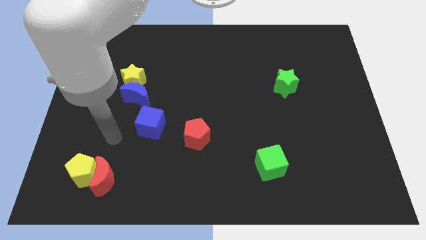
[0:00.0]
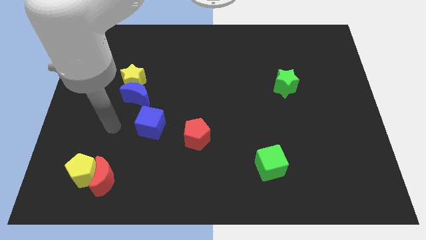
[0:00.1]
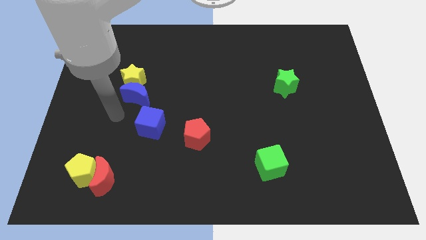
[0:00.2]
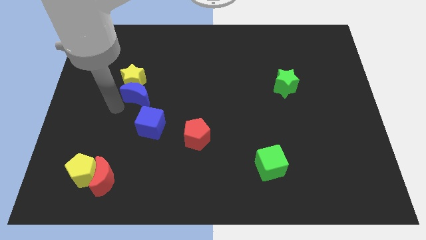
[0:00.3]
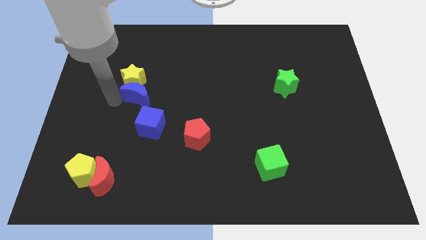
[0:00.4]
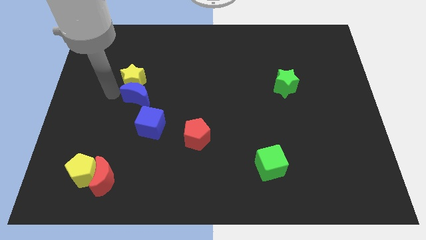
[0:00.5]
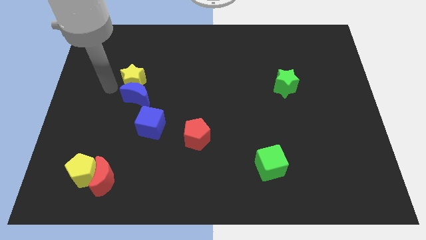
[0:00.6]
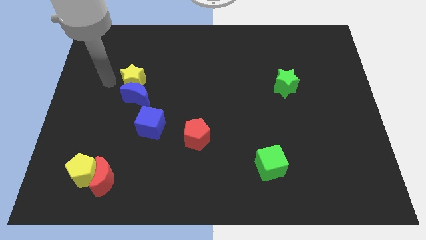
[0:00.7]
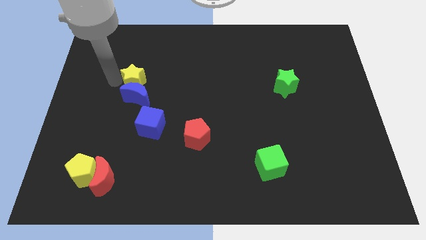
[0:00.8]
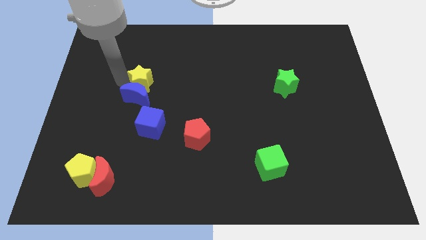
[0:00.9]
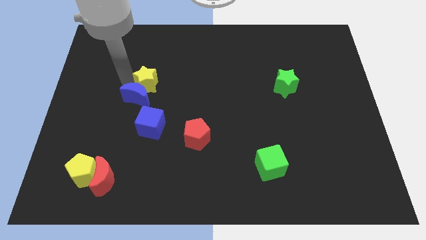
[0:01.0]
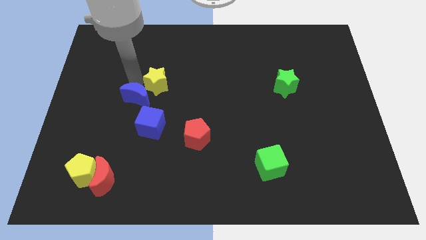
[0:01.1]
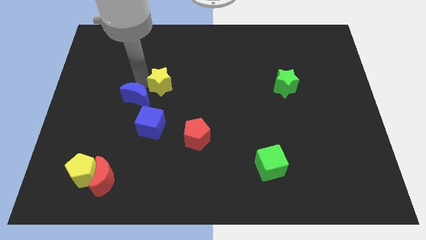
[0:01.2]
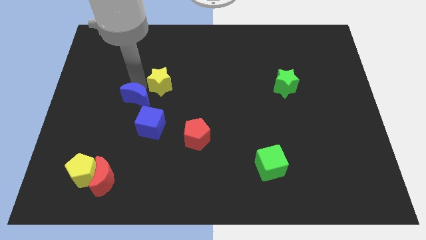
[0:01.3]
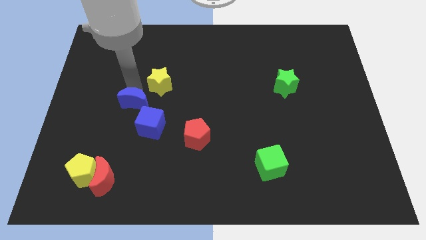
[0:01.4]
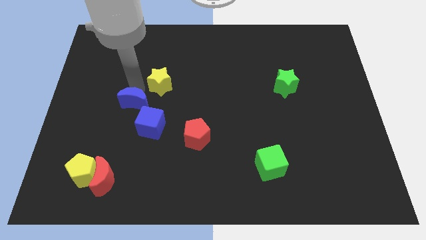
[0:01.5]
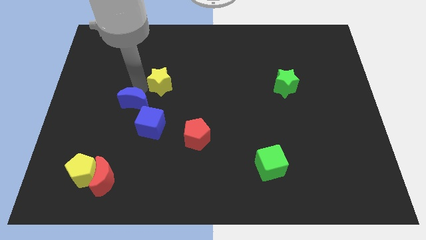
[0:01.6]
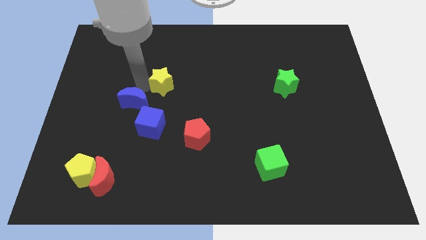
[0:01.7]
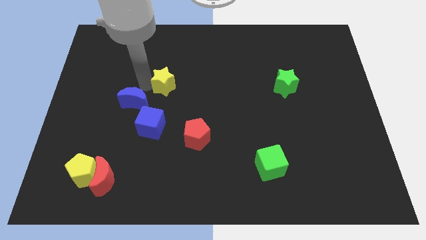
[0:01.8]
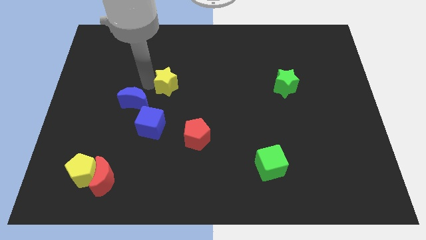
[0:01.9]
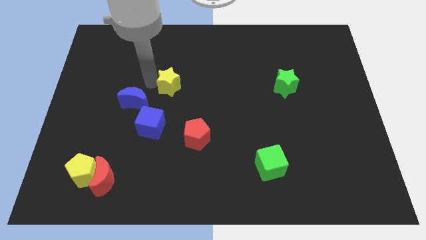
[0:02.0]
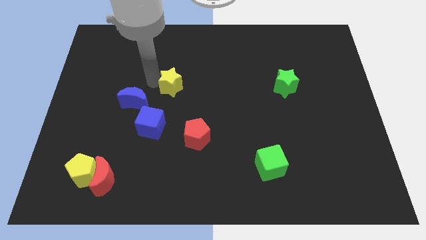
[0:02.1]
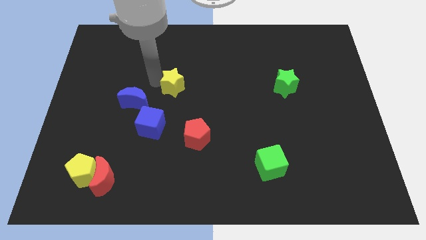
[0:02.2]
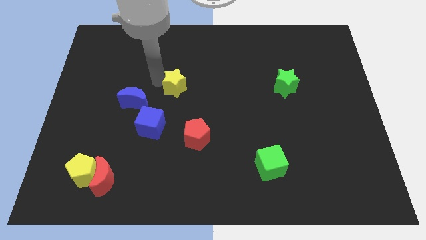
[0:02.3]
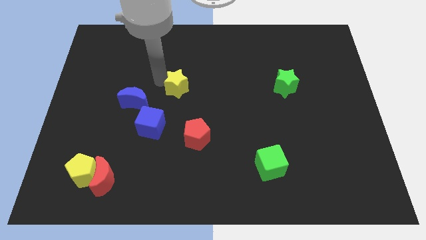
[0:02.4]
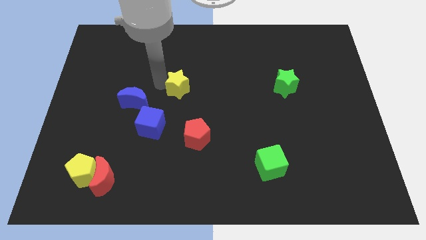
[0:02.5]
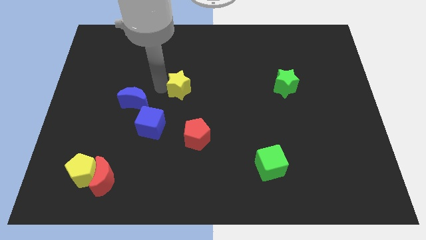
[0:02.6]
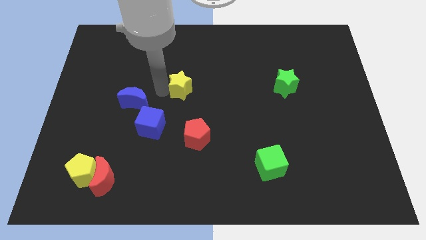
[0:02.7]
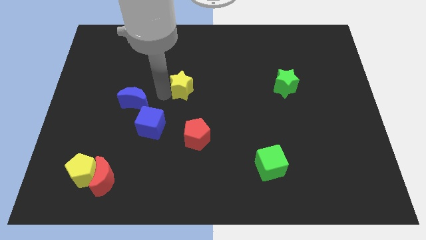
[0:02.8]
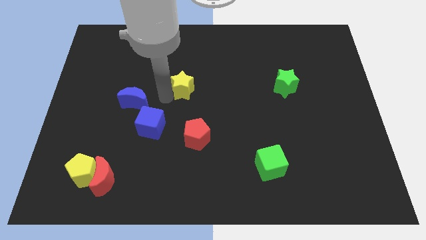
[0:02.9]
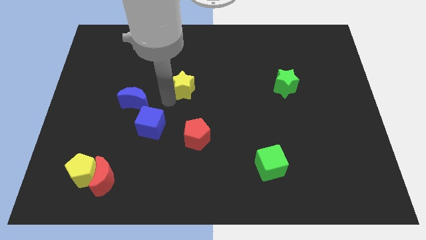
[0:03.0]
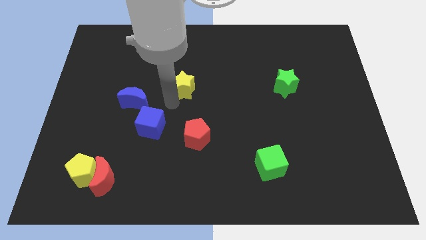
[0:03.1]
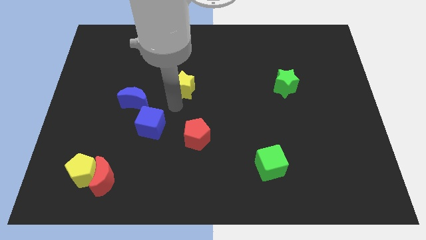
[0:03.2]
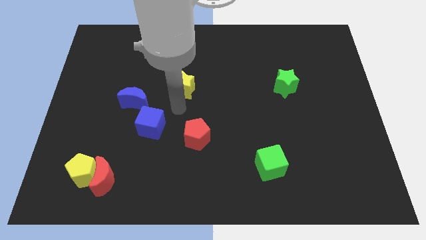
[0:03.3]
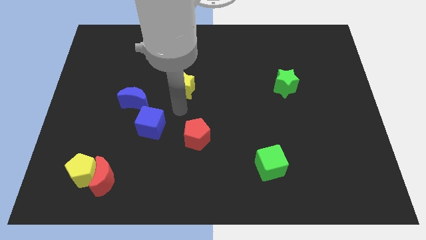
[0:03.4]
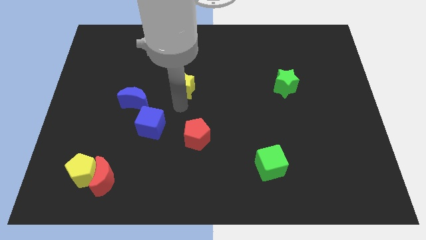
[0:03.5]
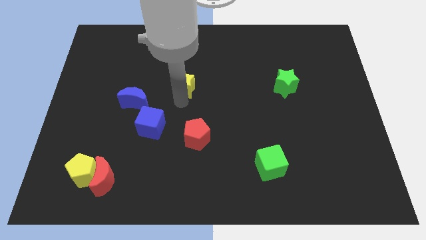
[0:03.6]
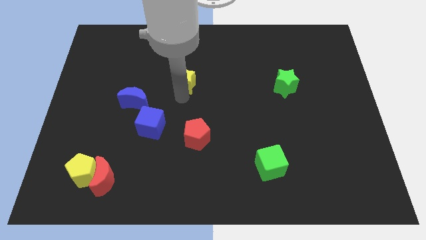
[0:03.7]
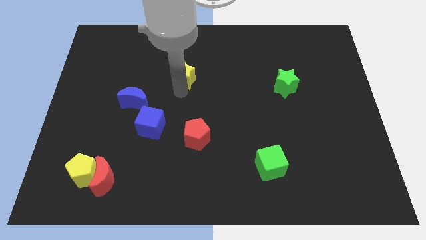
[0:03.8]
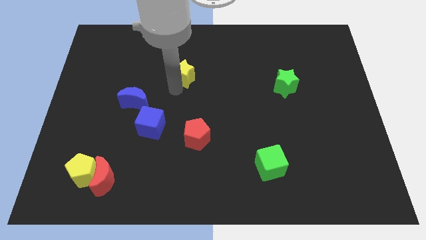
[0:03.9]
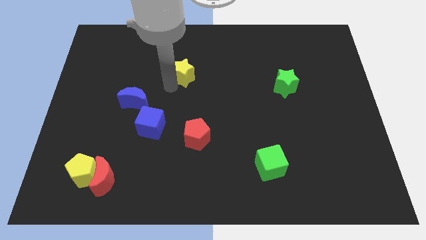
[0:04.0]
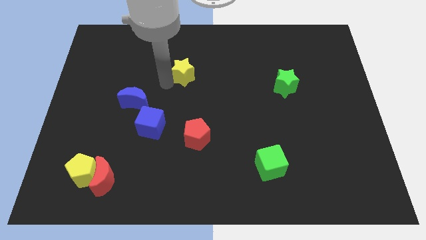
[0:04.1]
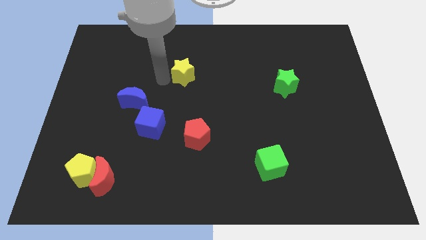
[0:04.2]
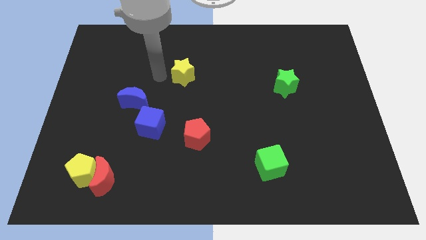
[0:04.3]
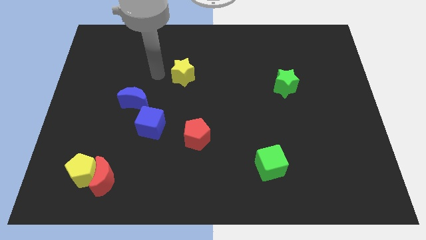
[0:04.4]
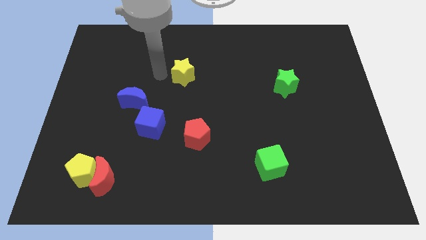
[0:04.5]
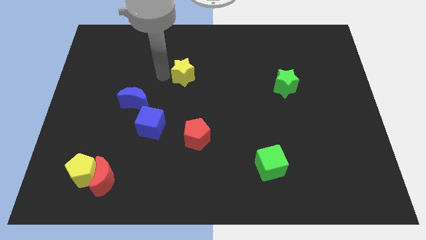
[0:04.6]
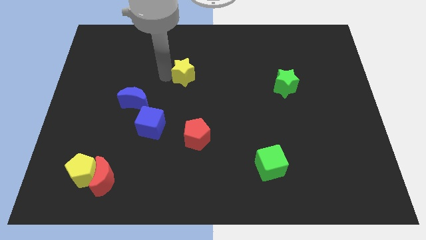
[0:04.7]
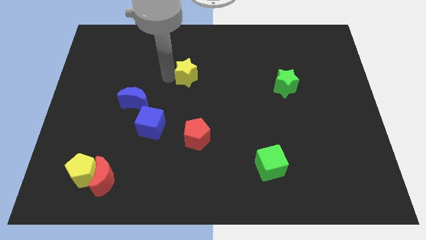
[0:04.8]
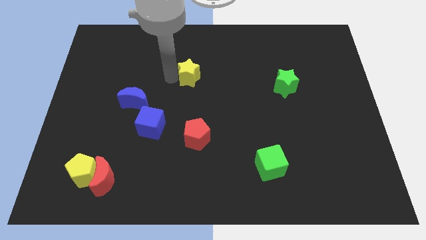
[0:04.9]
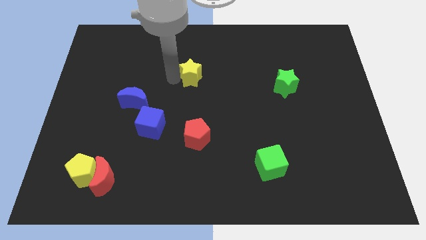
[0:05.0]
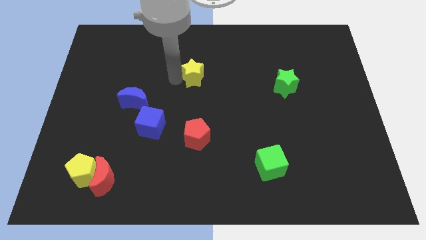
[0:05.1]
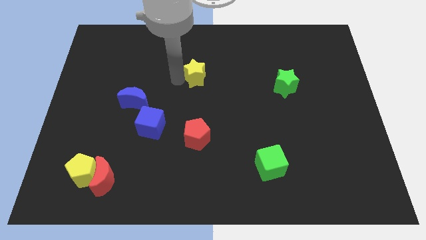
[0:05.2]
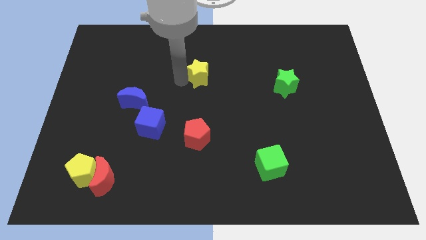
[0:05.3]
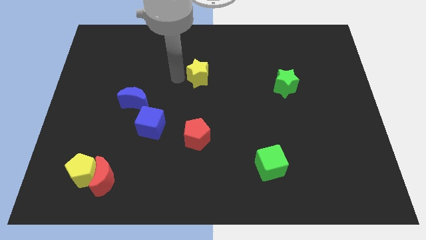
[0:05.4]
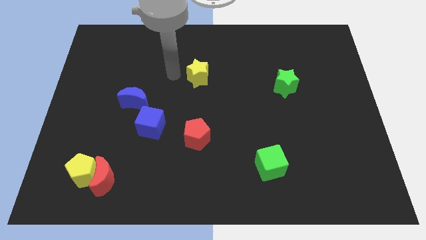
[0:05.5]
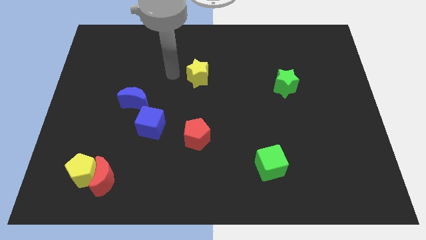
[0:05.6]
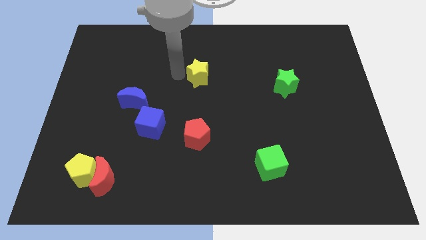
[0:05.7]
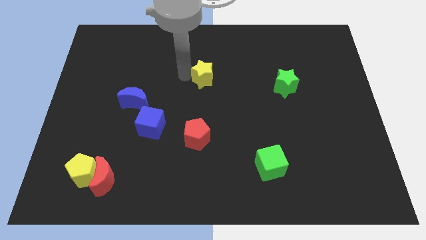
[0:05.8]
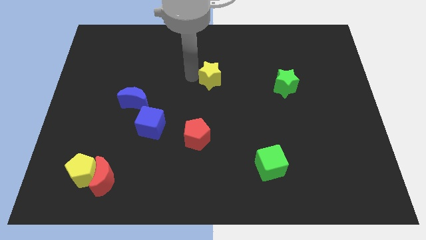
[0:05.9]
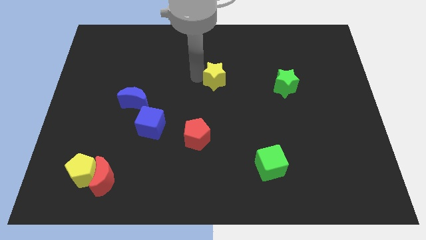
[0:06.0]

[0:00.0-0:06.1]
slide the yellow star to the right

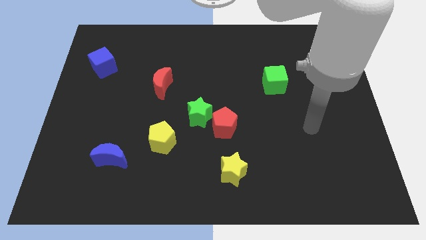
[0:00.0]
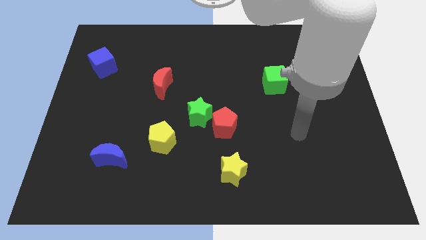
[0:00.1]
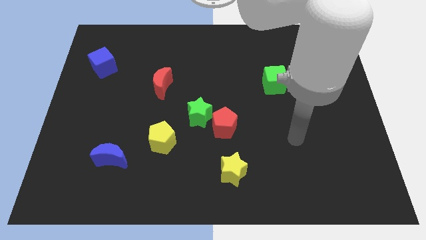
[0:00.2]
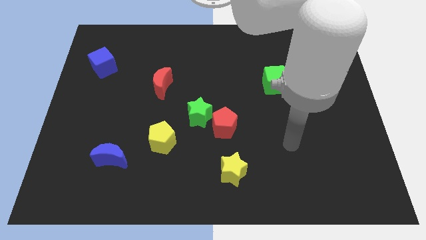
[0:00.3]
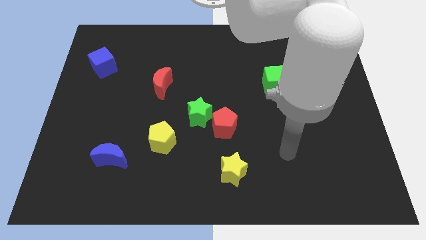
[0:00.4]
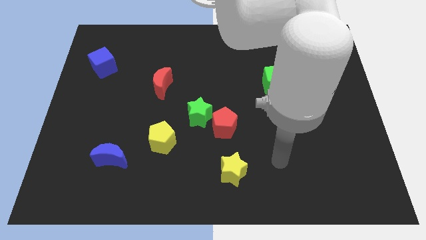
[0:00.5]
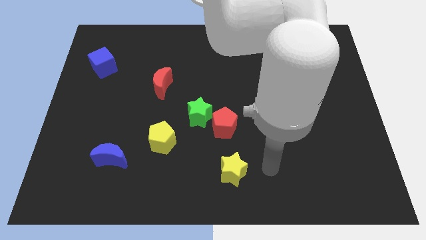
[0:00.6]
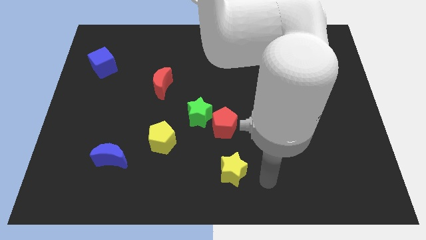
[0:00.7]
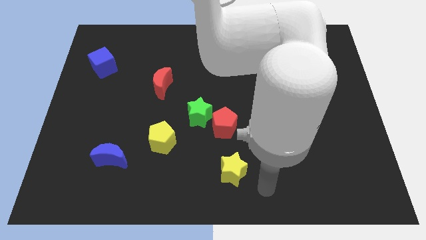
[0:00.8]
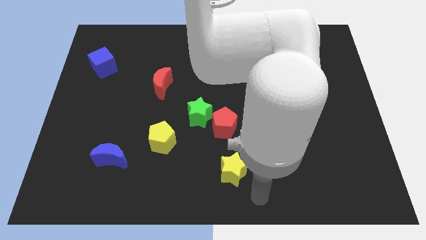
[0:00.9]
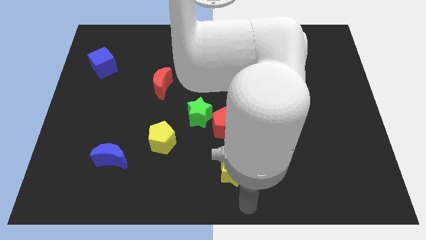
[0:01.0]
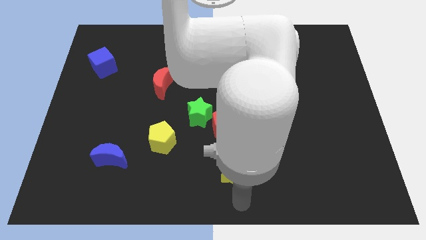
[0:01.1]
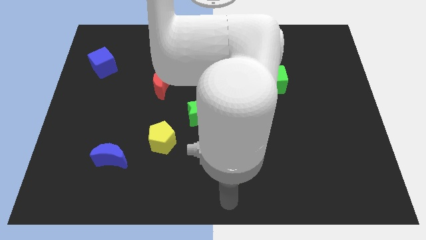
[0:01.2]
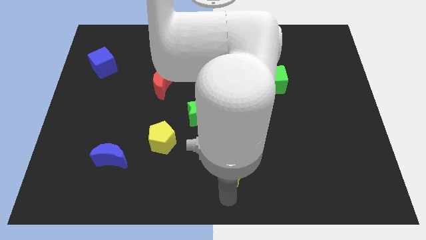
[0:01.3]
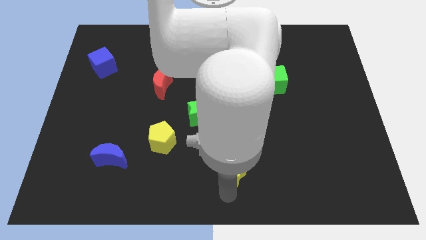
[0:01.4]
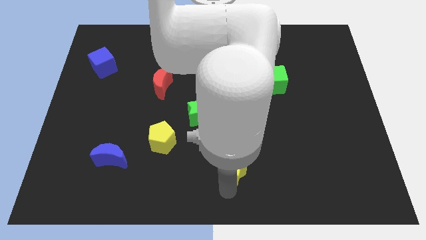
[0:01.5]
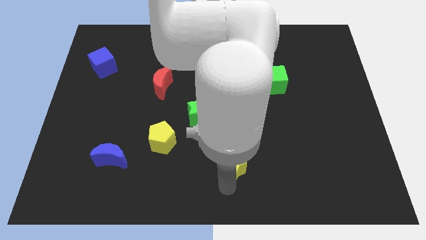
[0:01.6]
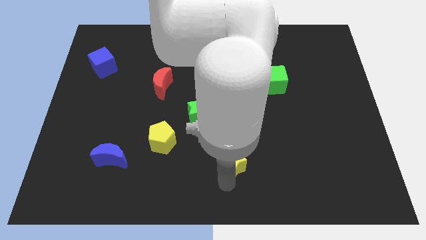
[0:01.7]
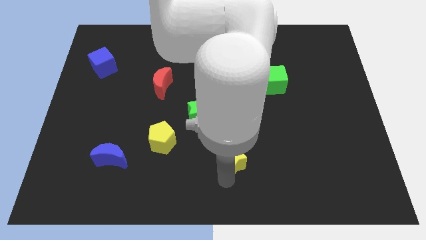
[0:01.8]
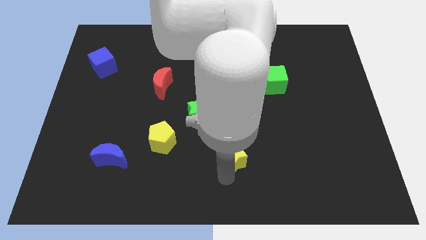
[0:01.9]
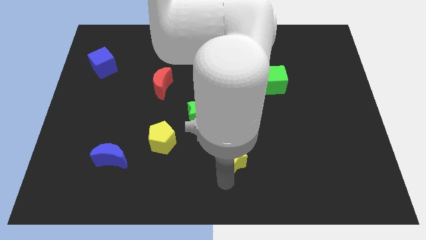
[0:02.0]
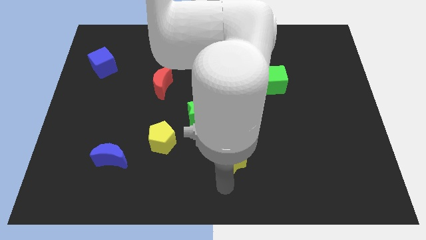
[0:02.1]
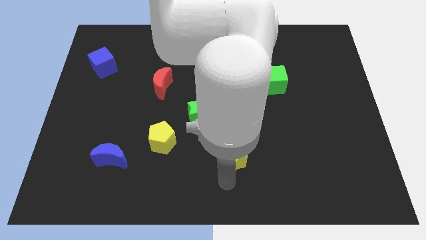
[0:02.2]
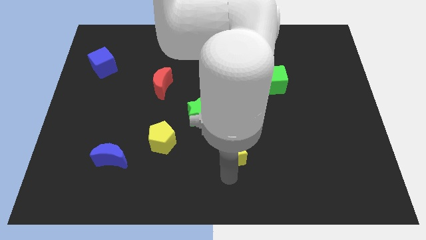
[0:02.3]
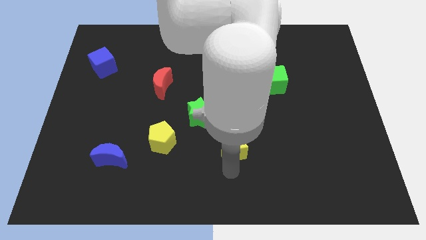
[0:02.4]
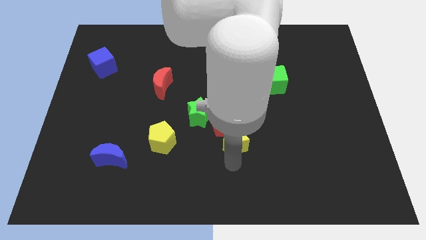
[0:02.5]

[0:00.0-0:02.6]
push the yellow star up a little bit
